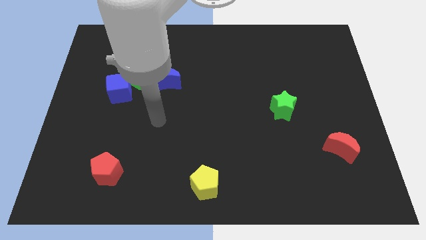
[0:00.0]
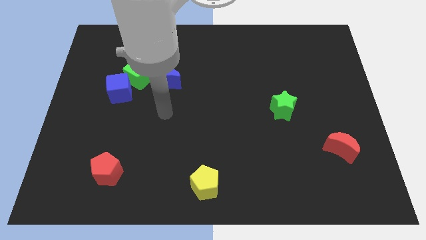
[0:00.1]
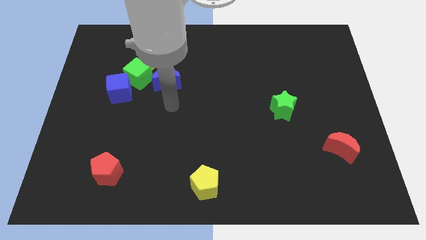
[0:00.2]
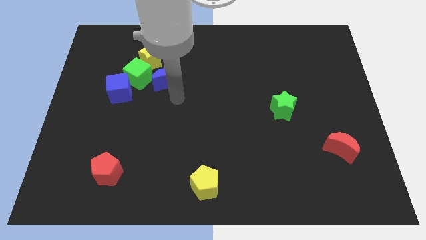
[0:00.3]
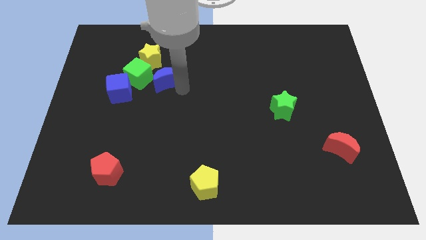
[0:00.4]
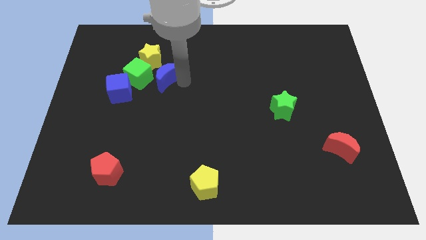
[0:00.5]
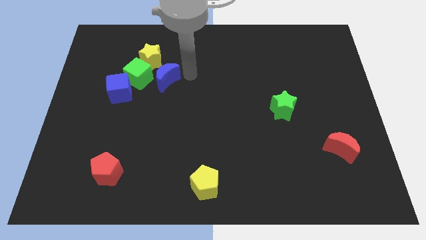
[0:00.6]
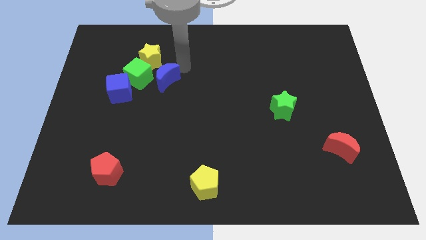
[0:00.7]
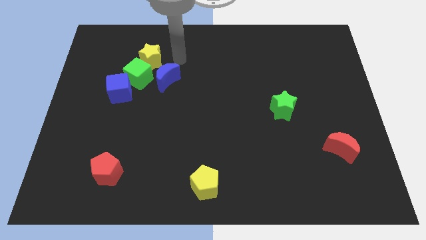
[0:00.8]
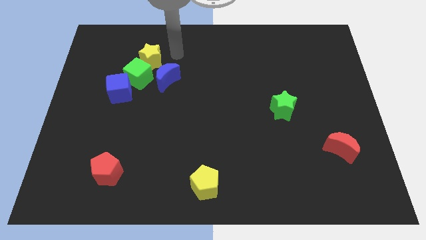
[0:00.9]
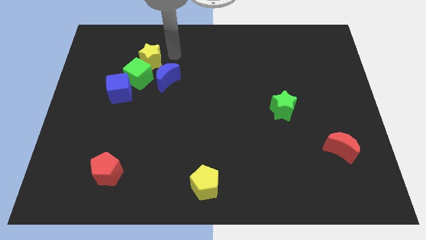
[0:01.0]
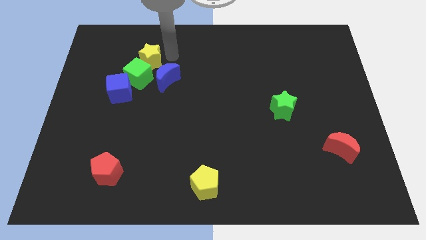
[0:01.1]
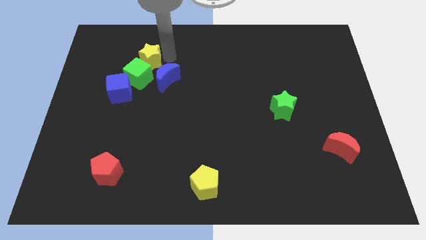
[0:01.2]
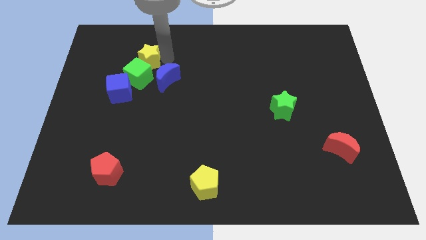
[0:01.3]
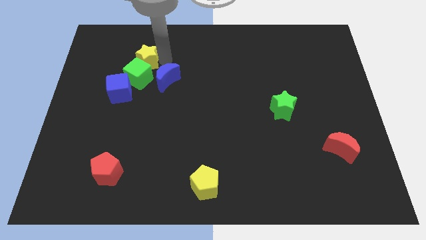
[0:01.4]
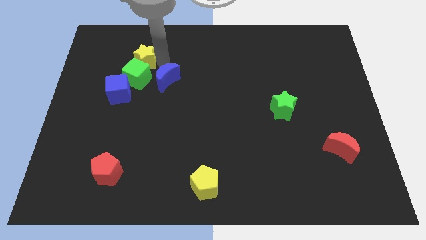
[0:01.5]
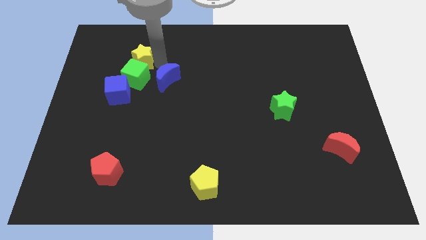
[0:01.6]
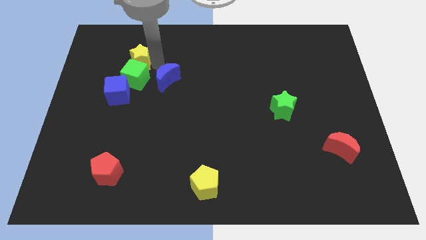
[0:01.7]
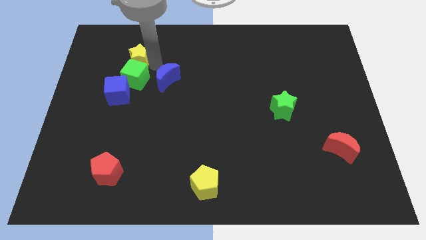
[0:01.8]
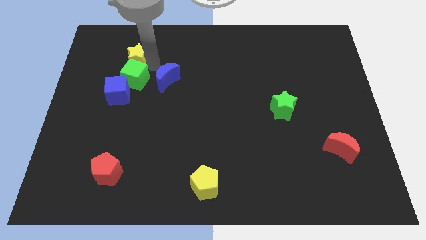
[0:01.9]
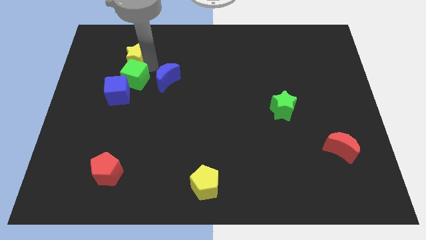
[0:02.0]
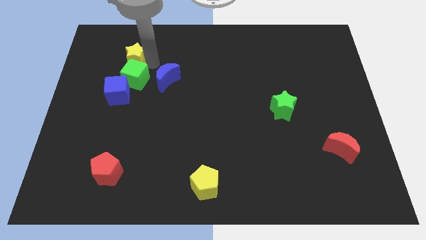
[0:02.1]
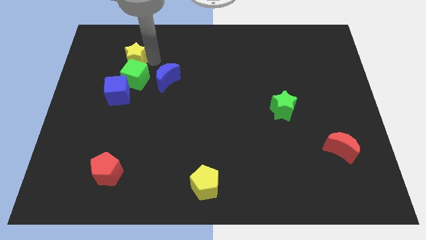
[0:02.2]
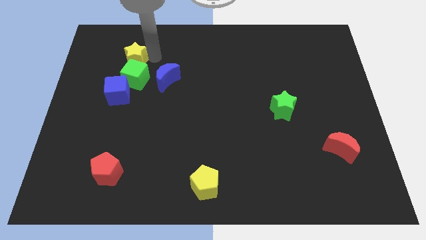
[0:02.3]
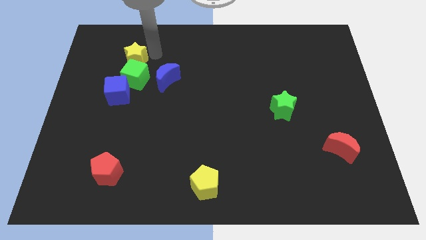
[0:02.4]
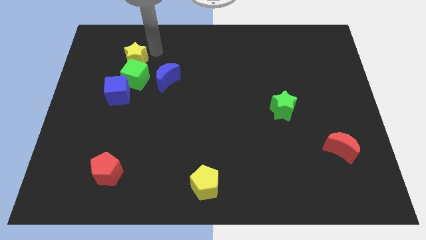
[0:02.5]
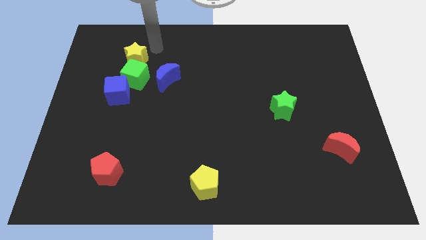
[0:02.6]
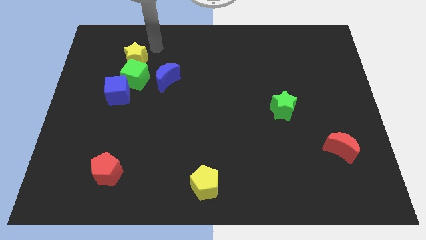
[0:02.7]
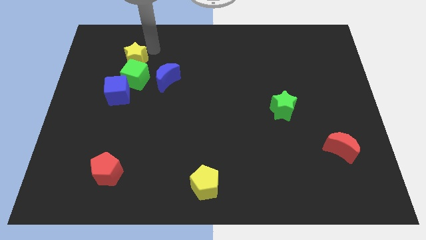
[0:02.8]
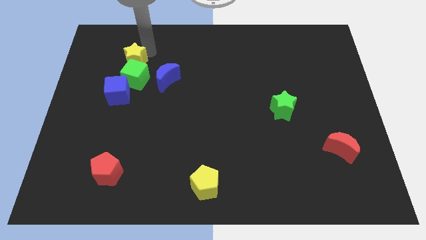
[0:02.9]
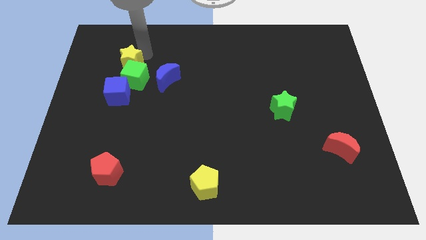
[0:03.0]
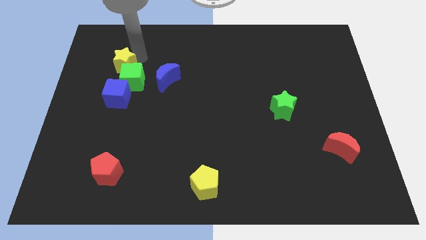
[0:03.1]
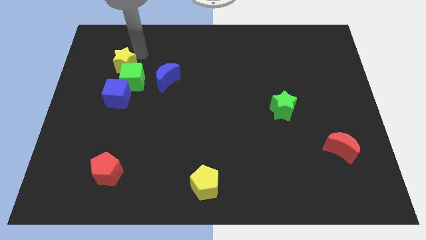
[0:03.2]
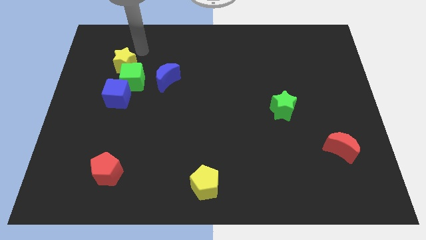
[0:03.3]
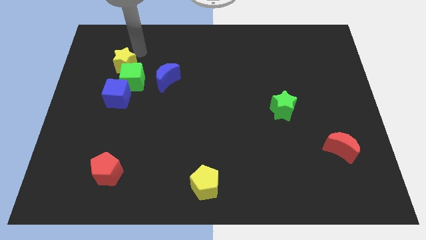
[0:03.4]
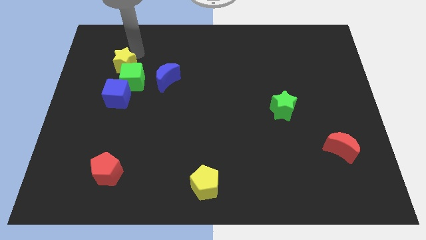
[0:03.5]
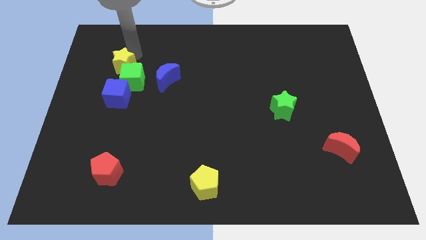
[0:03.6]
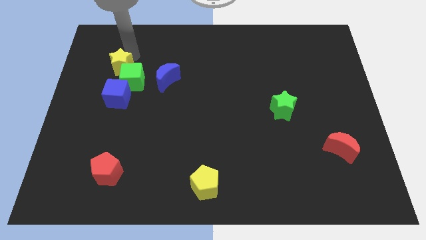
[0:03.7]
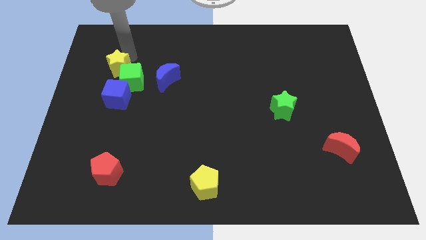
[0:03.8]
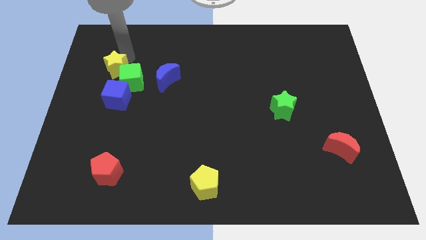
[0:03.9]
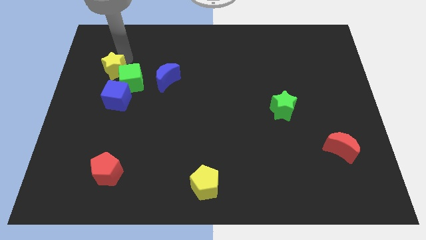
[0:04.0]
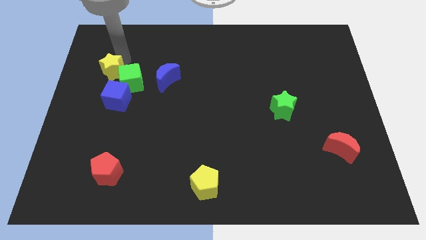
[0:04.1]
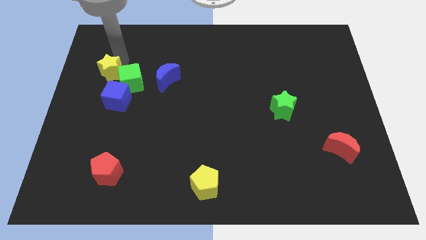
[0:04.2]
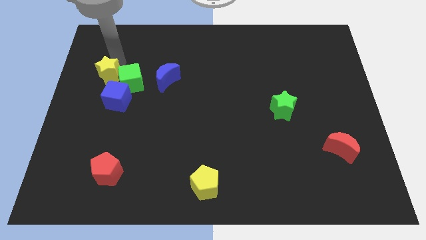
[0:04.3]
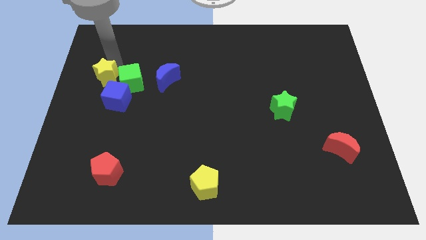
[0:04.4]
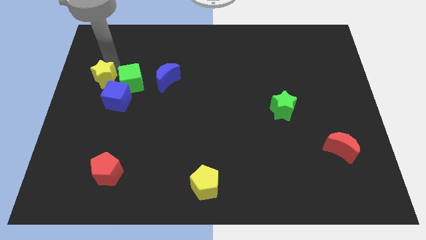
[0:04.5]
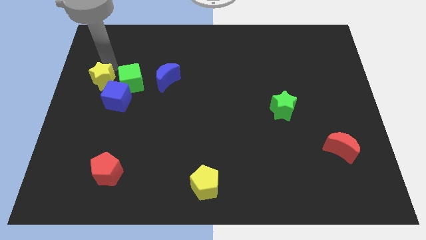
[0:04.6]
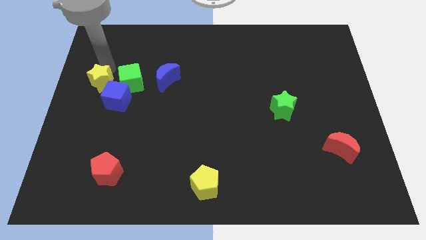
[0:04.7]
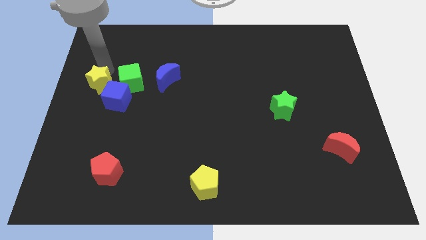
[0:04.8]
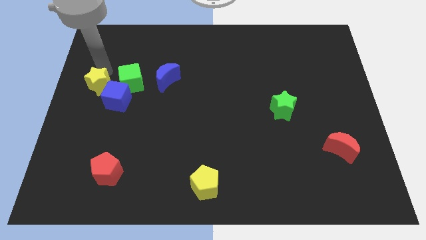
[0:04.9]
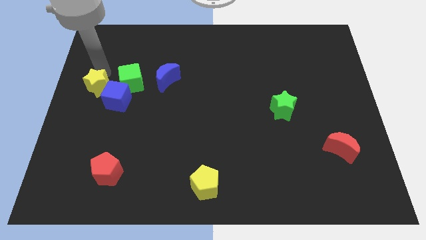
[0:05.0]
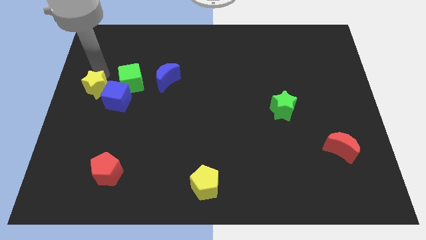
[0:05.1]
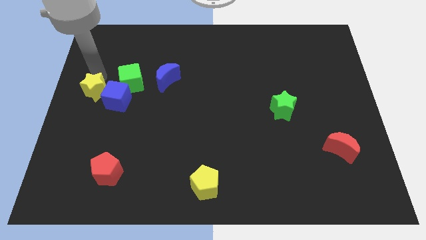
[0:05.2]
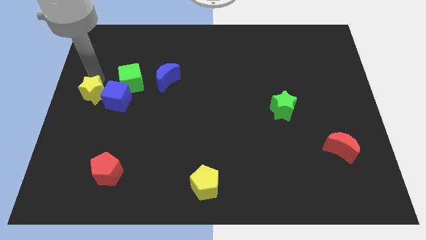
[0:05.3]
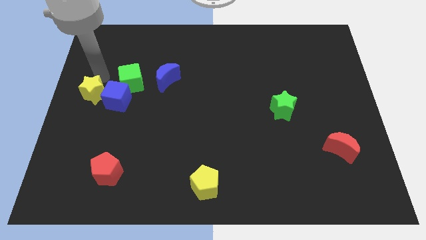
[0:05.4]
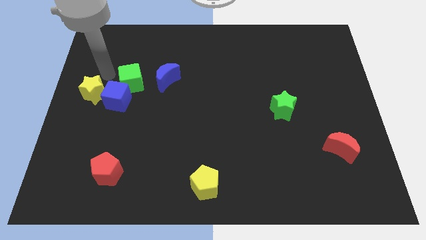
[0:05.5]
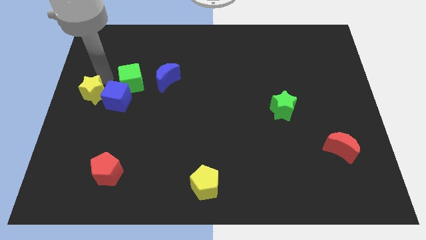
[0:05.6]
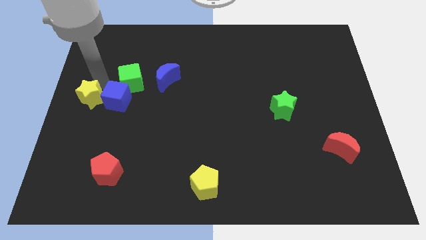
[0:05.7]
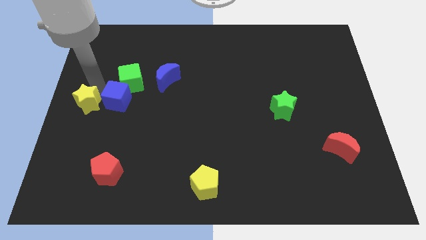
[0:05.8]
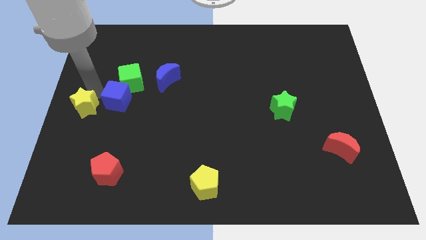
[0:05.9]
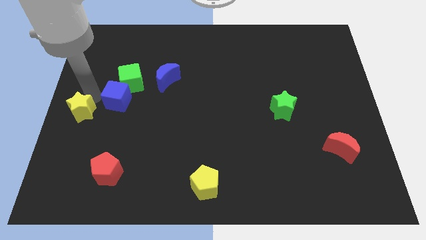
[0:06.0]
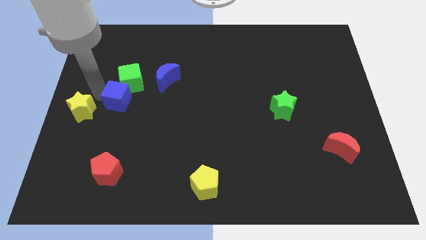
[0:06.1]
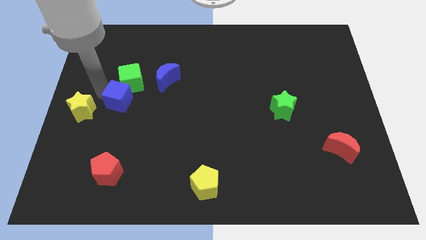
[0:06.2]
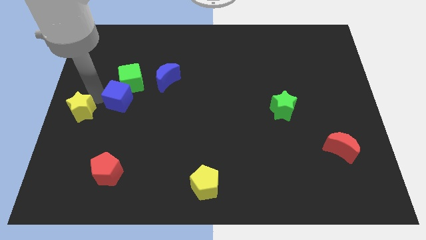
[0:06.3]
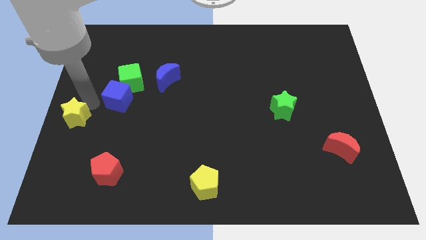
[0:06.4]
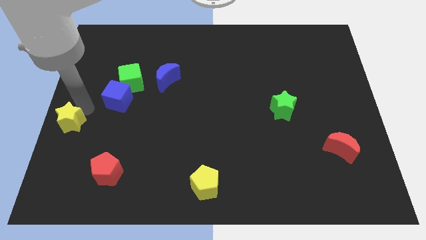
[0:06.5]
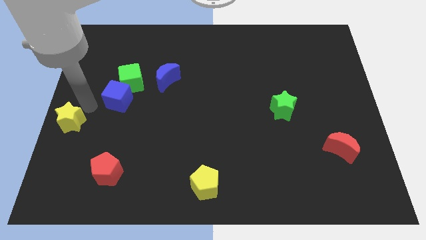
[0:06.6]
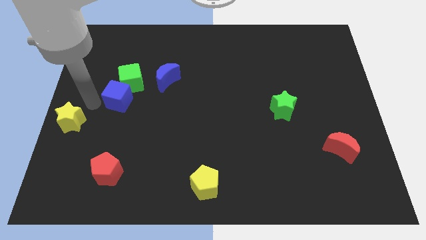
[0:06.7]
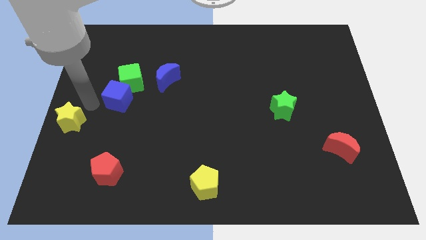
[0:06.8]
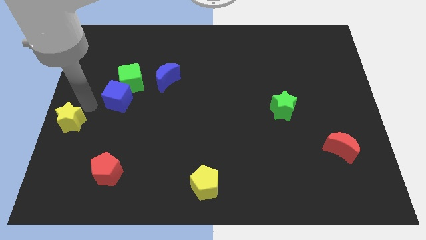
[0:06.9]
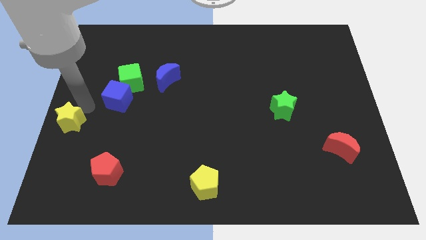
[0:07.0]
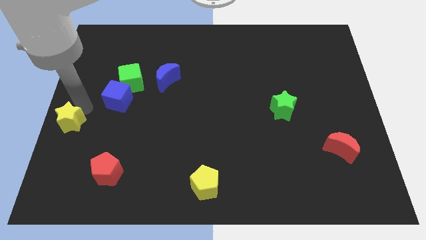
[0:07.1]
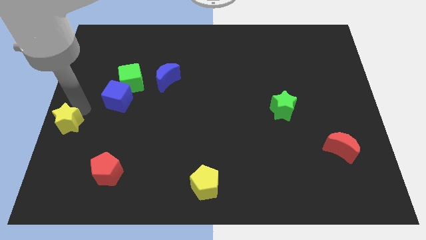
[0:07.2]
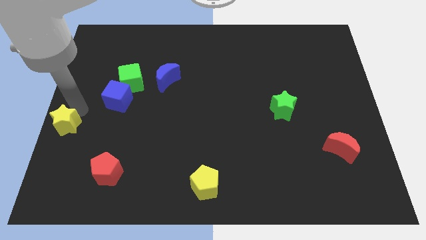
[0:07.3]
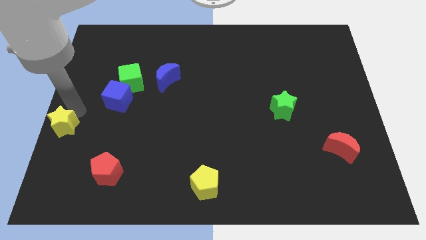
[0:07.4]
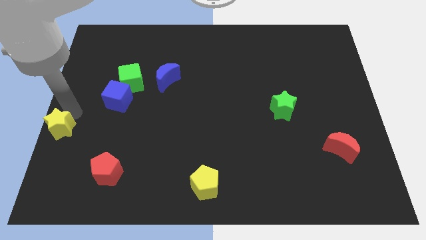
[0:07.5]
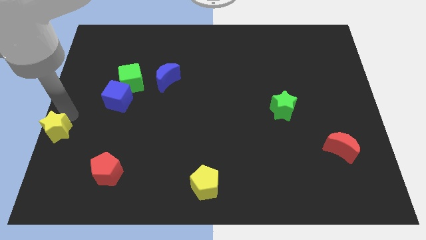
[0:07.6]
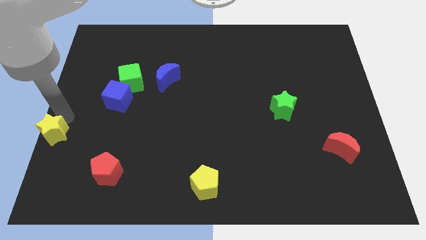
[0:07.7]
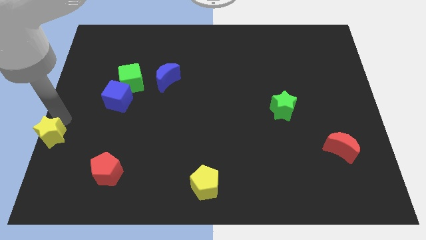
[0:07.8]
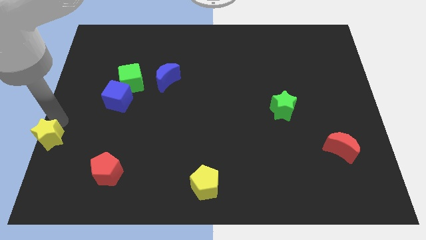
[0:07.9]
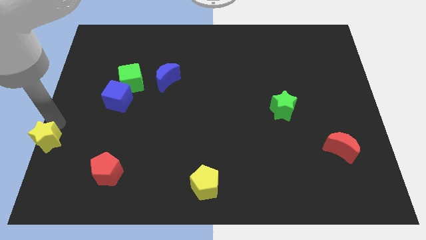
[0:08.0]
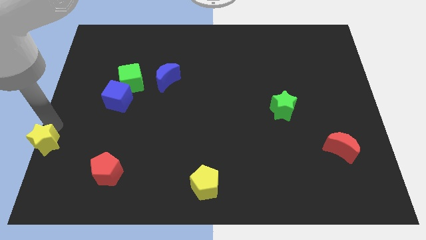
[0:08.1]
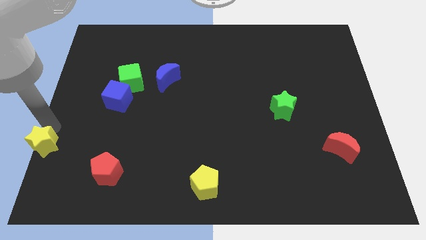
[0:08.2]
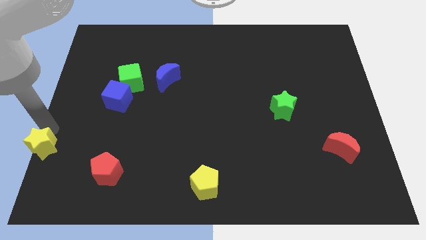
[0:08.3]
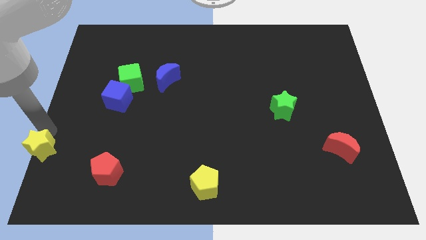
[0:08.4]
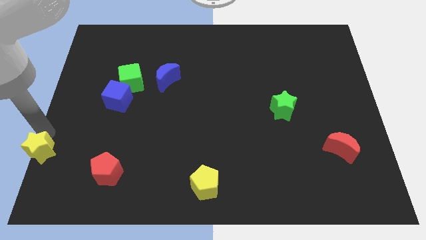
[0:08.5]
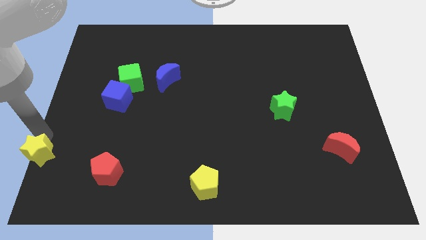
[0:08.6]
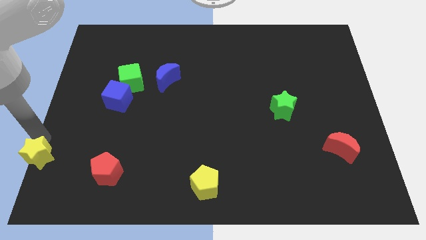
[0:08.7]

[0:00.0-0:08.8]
push the yellow star to the bottom left of the board
